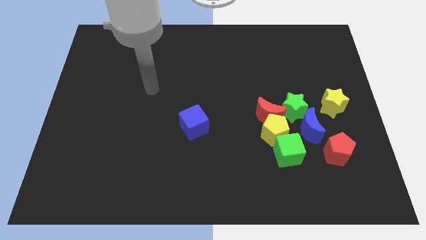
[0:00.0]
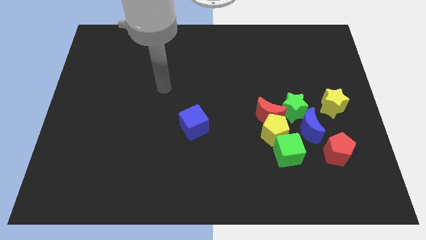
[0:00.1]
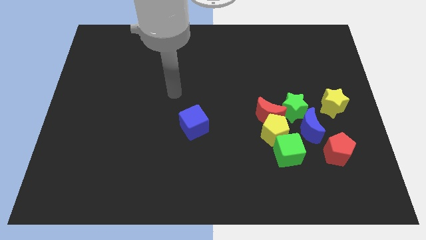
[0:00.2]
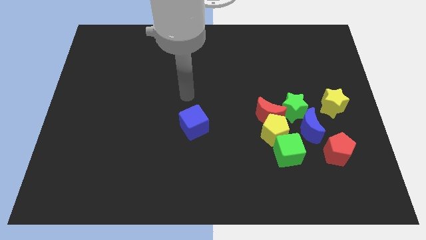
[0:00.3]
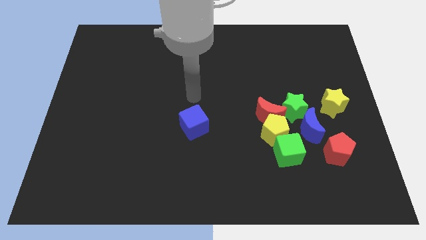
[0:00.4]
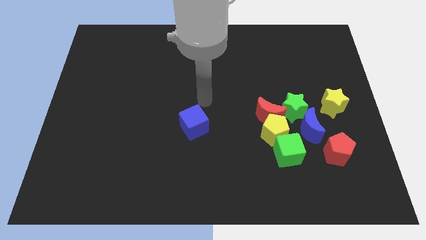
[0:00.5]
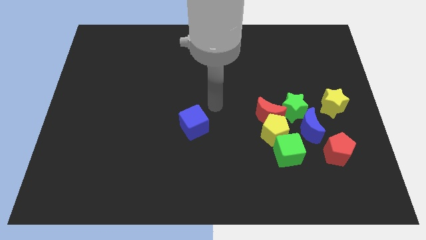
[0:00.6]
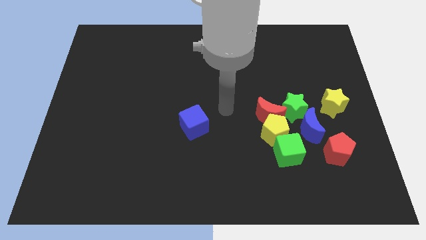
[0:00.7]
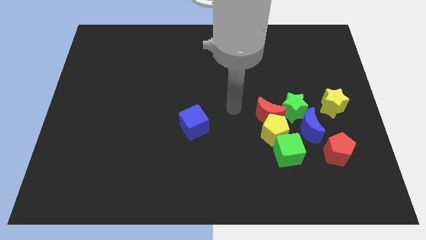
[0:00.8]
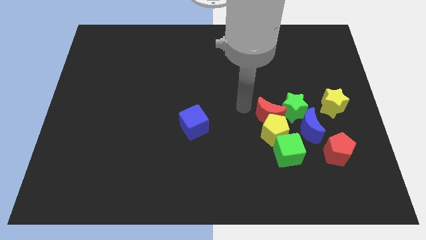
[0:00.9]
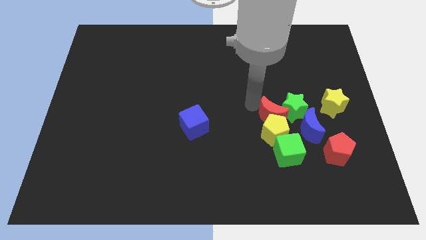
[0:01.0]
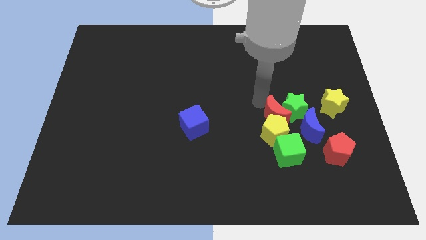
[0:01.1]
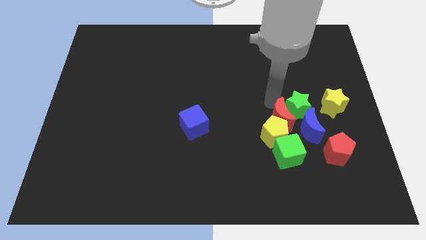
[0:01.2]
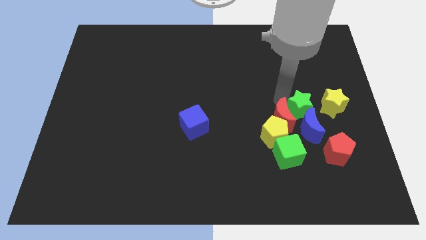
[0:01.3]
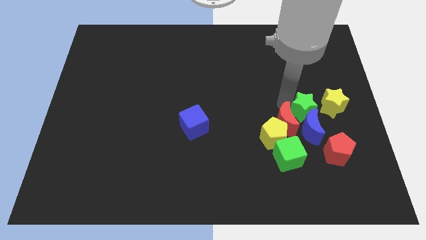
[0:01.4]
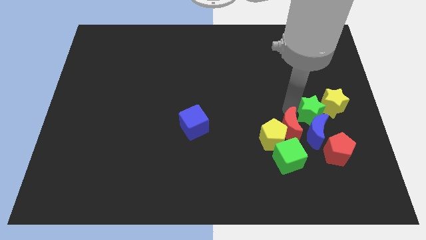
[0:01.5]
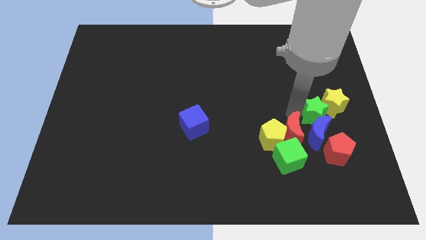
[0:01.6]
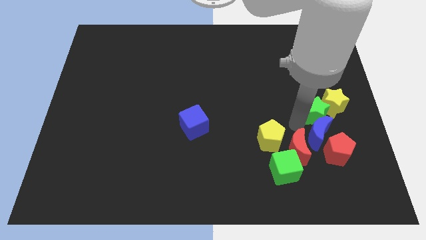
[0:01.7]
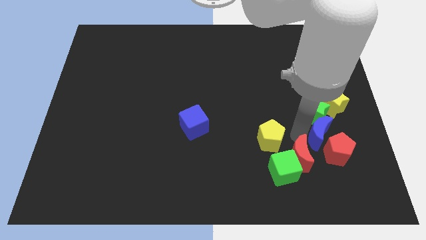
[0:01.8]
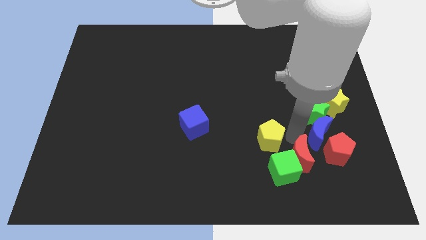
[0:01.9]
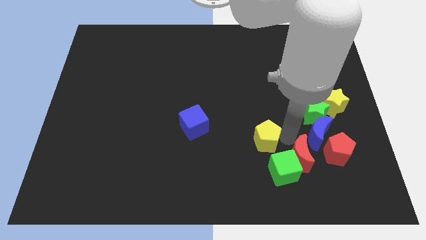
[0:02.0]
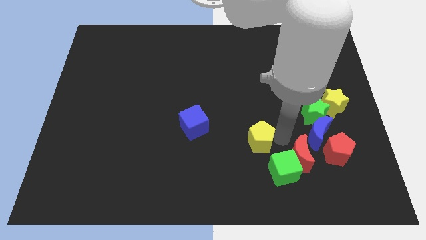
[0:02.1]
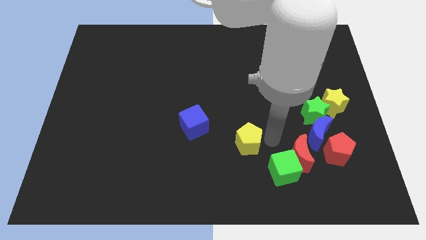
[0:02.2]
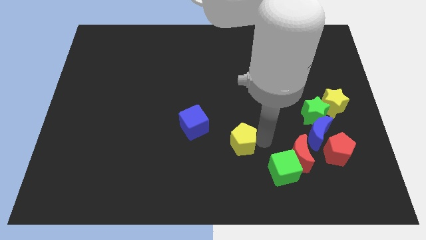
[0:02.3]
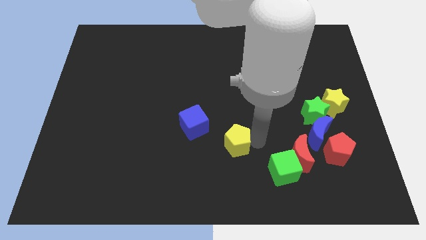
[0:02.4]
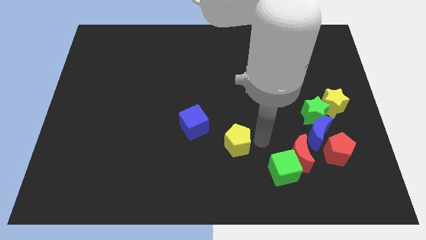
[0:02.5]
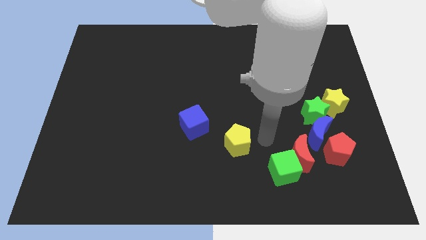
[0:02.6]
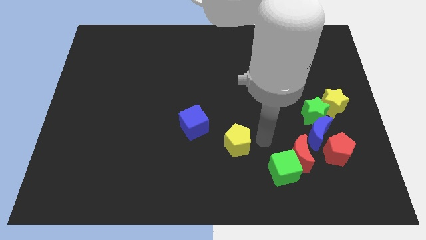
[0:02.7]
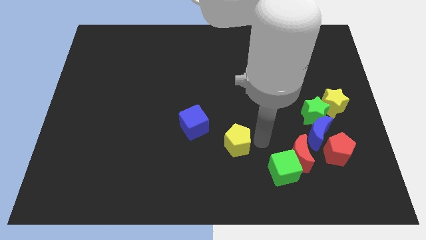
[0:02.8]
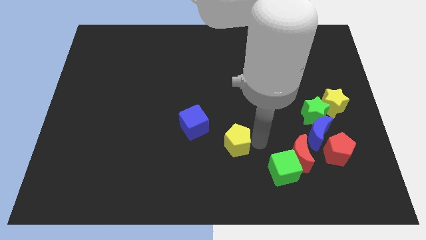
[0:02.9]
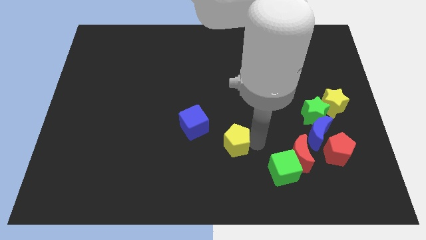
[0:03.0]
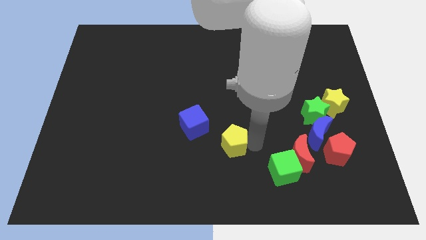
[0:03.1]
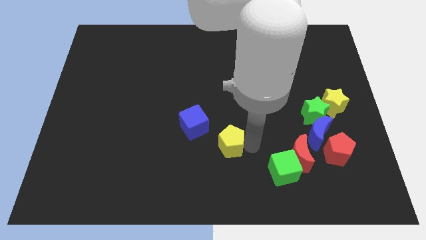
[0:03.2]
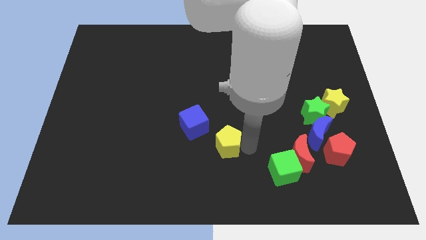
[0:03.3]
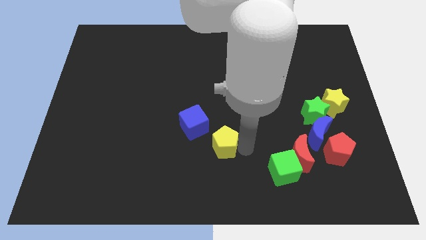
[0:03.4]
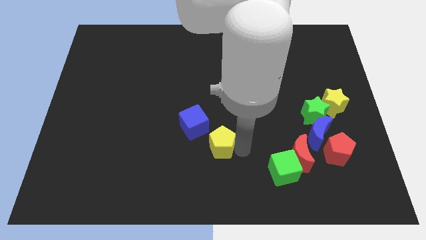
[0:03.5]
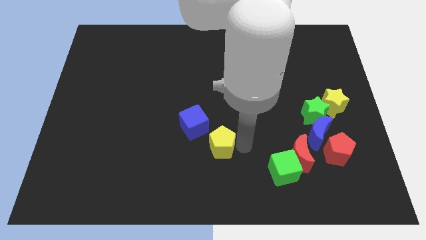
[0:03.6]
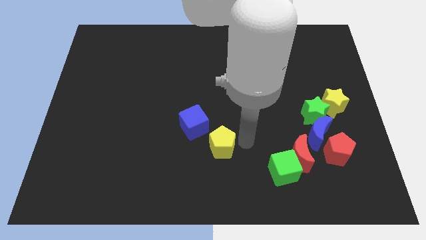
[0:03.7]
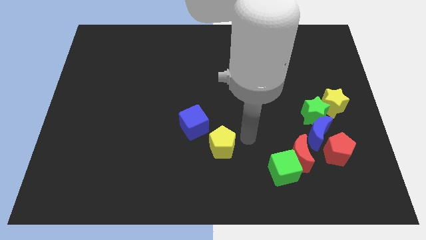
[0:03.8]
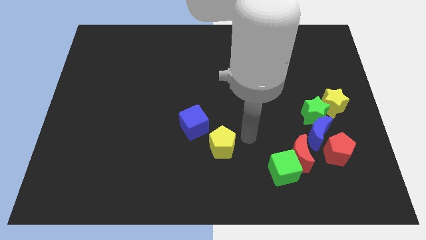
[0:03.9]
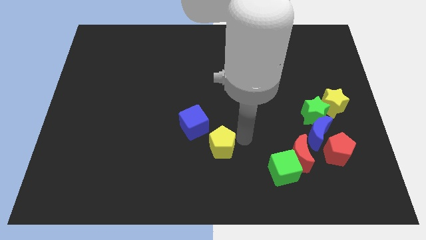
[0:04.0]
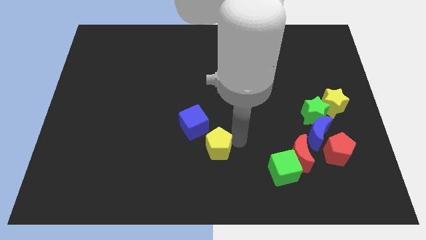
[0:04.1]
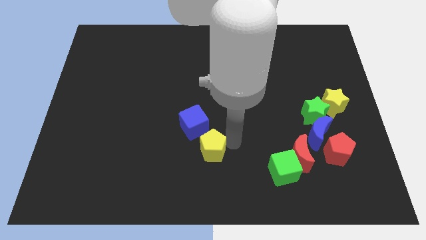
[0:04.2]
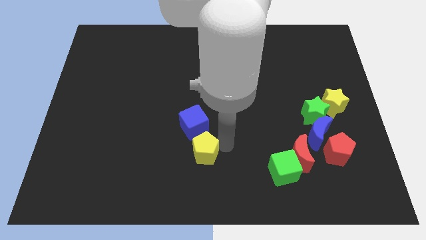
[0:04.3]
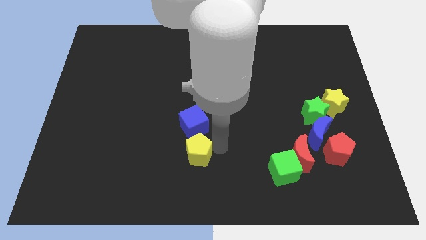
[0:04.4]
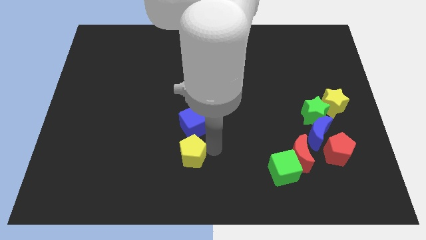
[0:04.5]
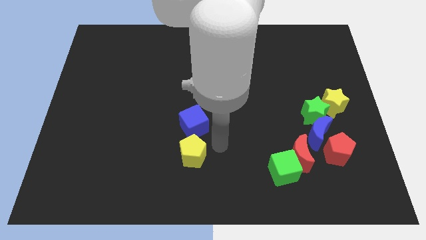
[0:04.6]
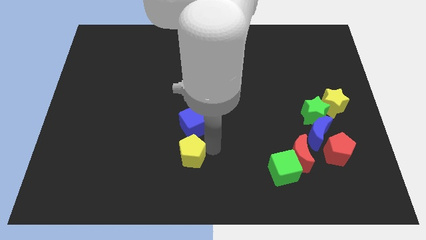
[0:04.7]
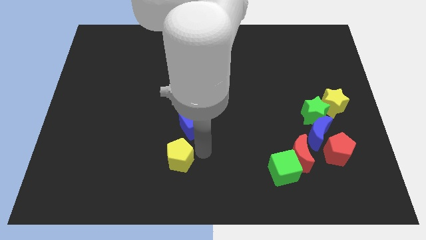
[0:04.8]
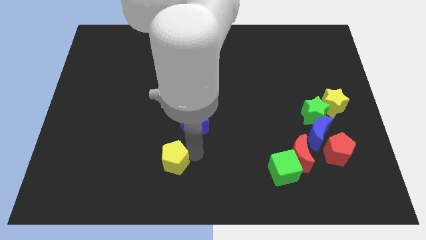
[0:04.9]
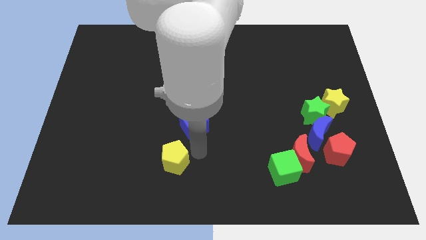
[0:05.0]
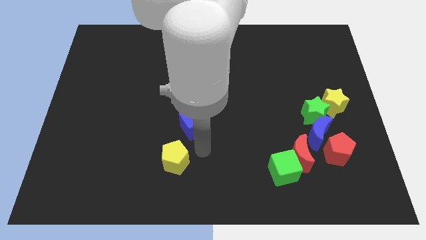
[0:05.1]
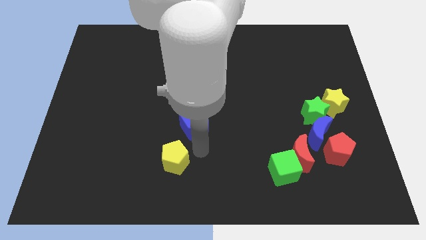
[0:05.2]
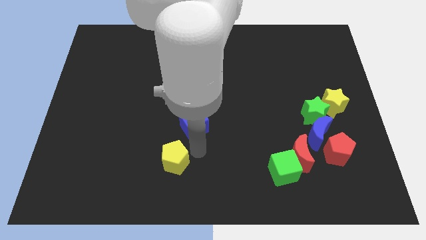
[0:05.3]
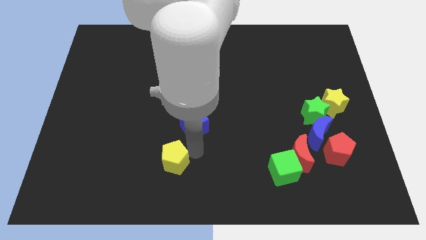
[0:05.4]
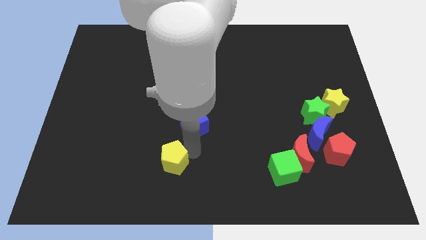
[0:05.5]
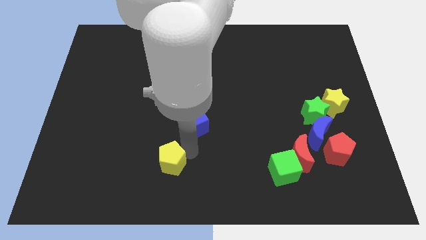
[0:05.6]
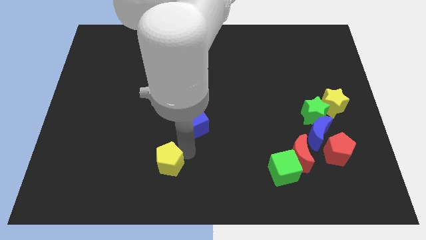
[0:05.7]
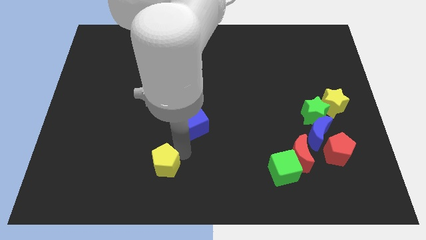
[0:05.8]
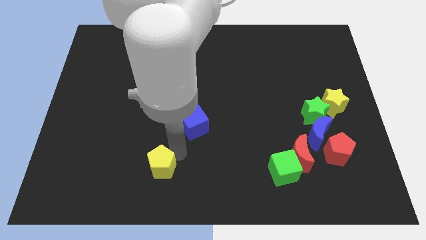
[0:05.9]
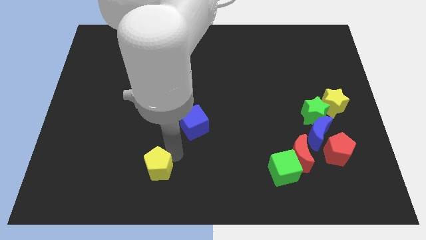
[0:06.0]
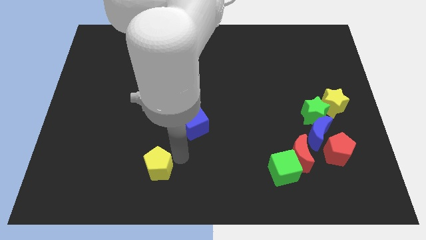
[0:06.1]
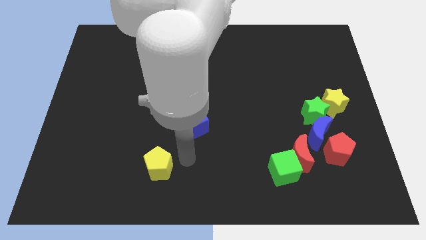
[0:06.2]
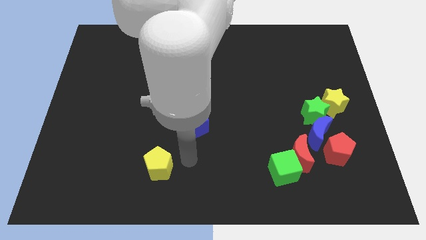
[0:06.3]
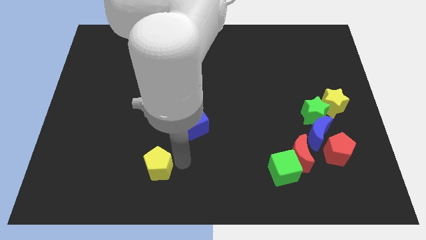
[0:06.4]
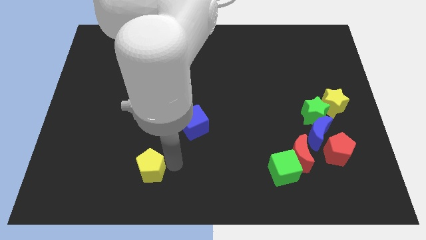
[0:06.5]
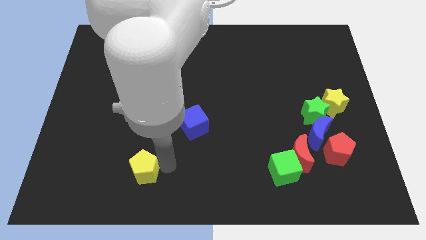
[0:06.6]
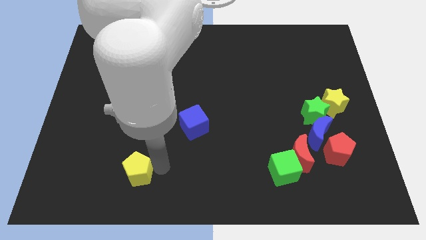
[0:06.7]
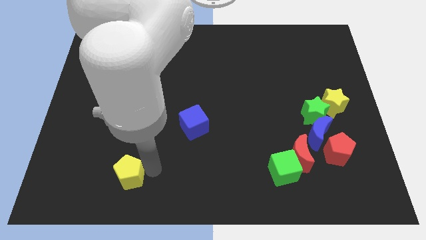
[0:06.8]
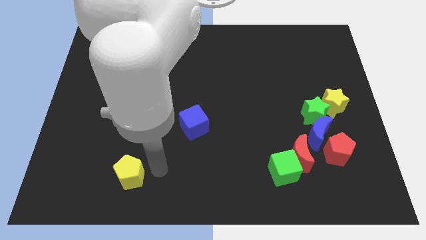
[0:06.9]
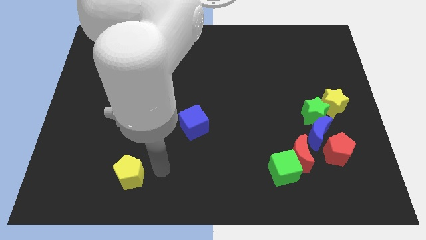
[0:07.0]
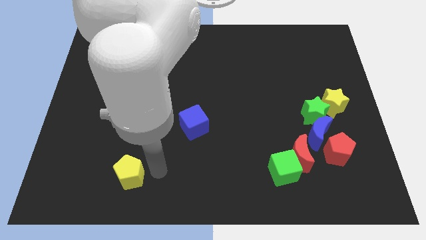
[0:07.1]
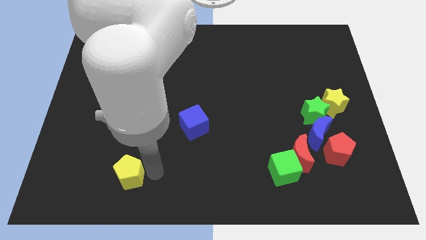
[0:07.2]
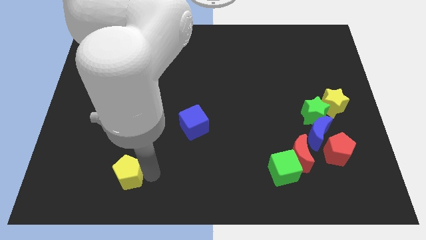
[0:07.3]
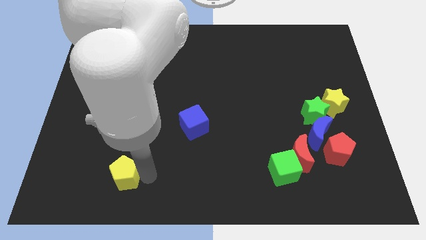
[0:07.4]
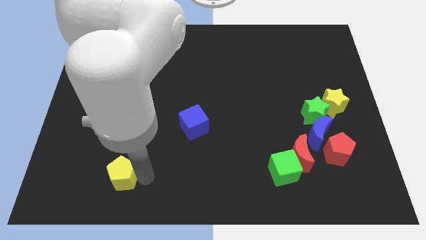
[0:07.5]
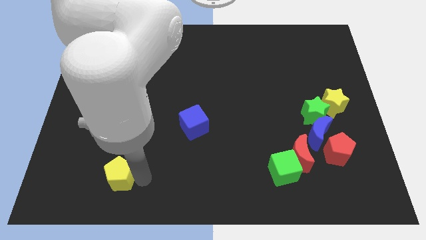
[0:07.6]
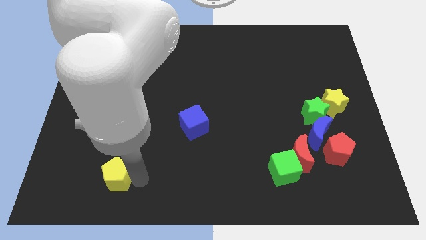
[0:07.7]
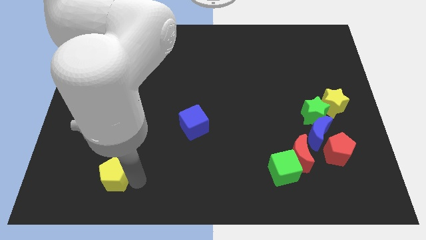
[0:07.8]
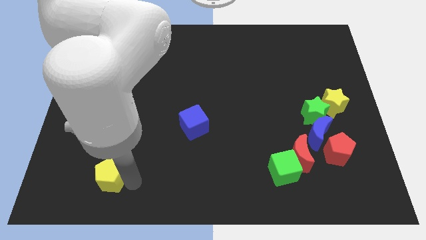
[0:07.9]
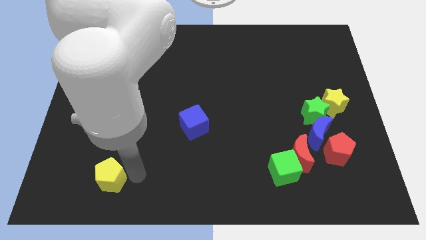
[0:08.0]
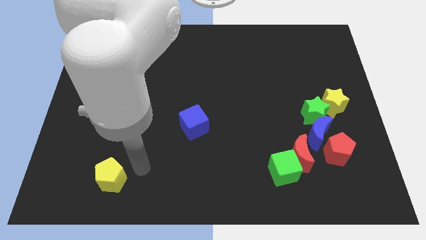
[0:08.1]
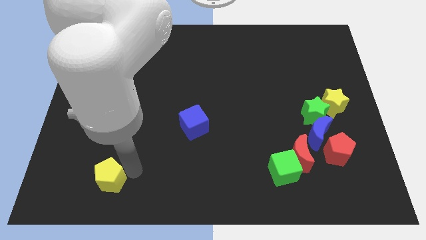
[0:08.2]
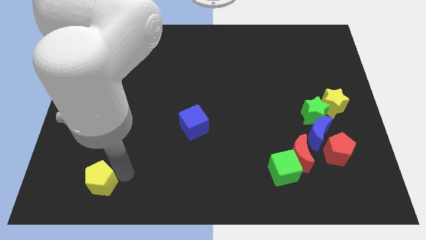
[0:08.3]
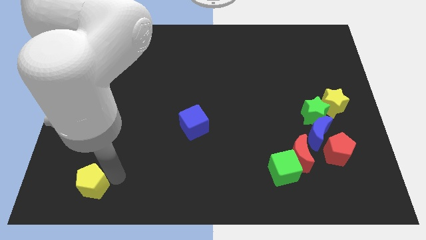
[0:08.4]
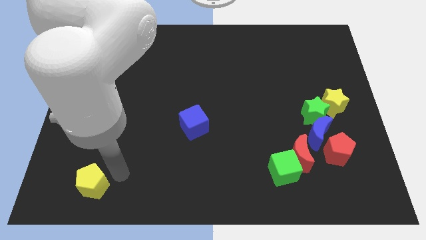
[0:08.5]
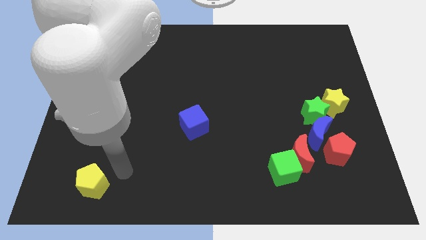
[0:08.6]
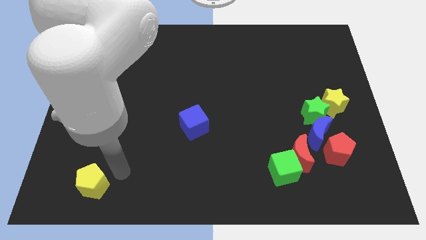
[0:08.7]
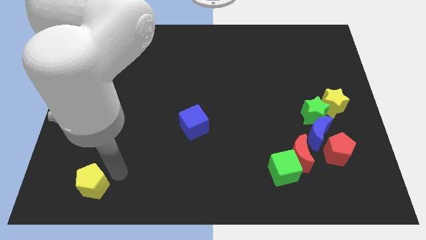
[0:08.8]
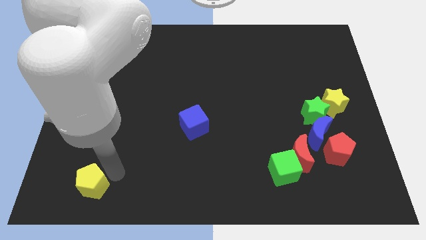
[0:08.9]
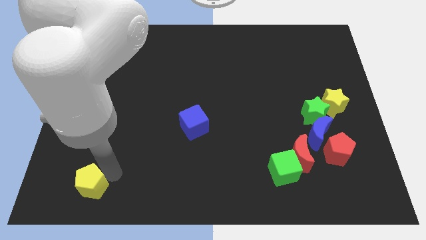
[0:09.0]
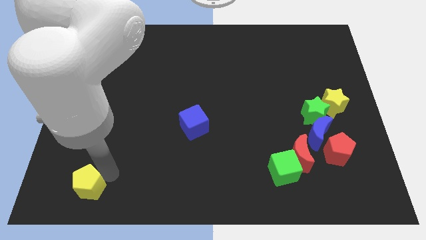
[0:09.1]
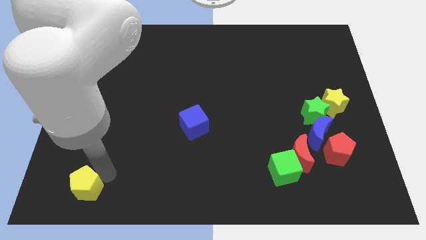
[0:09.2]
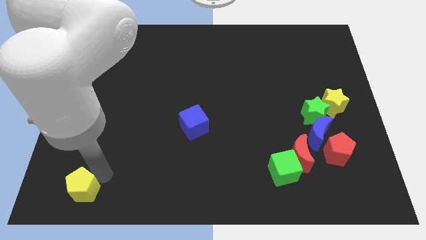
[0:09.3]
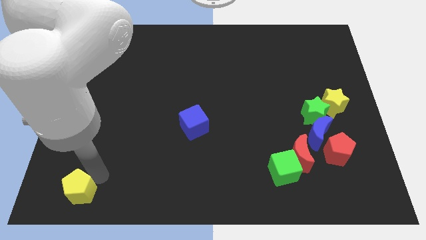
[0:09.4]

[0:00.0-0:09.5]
move the yellow pentagon to the bottom left
